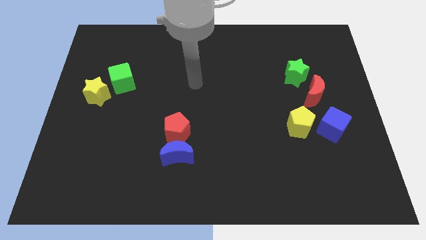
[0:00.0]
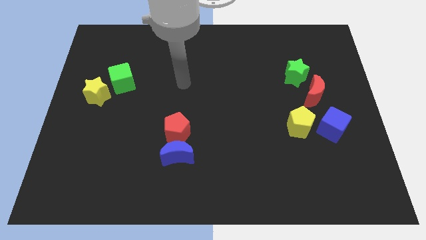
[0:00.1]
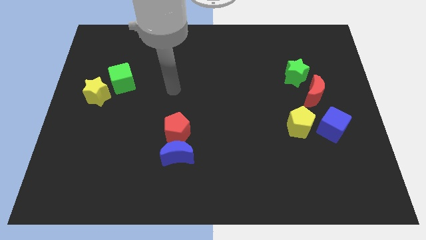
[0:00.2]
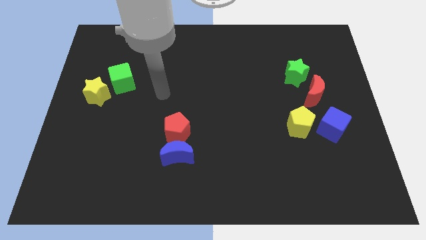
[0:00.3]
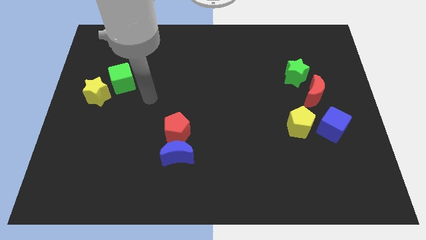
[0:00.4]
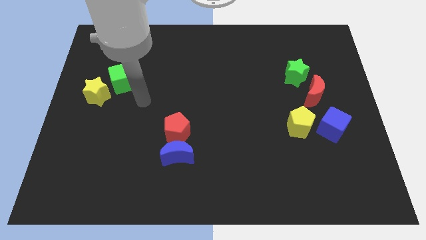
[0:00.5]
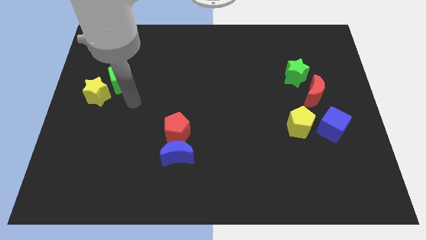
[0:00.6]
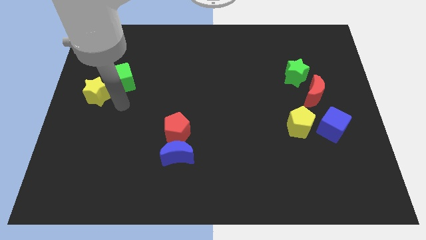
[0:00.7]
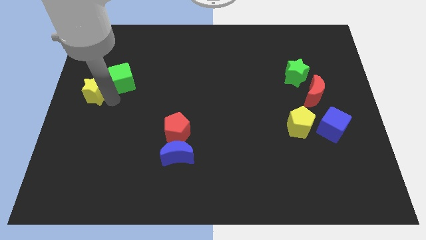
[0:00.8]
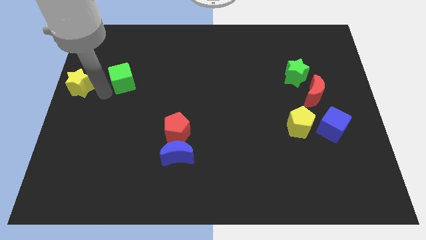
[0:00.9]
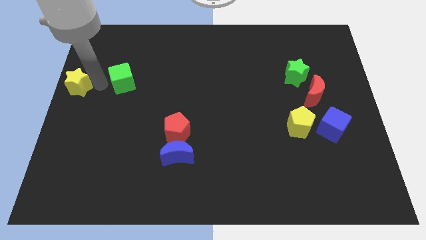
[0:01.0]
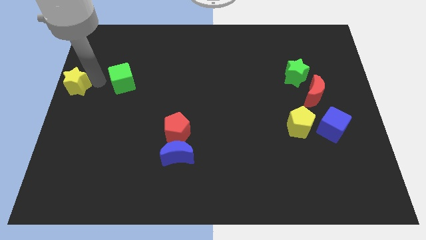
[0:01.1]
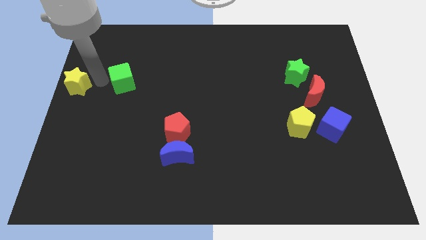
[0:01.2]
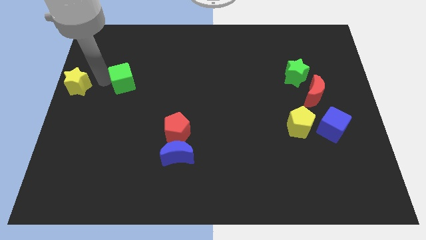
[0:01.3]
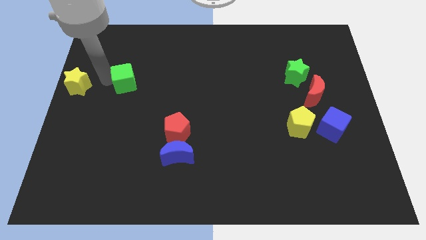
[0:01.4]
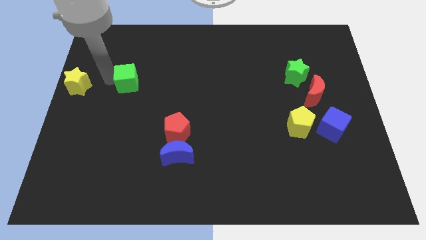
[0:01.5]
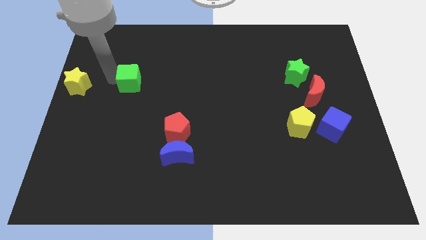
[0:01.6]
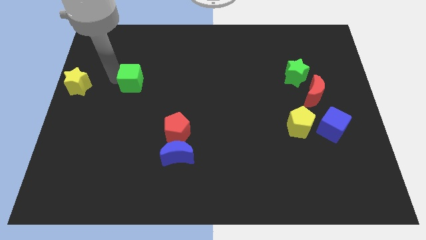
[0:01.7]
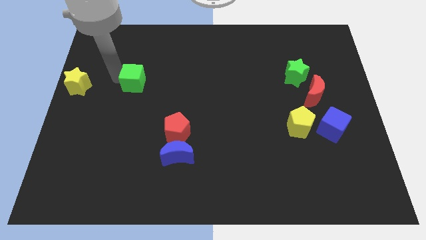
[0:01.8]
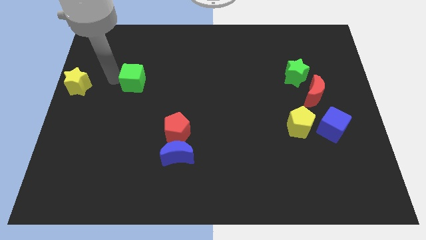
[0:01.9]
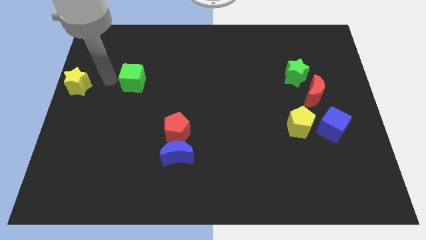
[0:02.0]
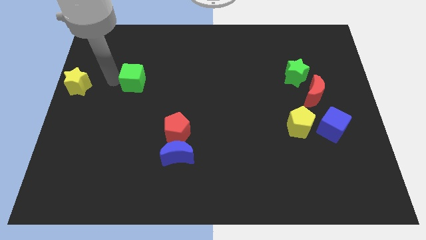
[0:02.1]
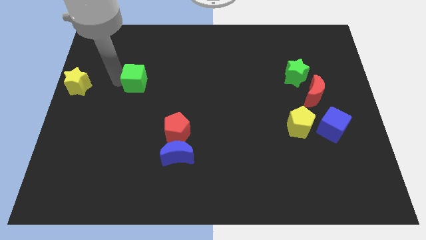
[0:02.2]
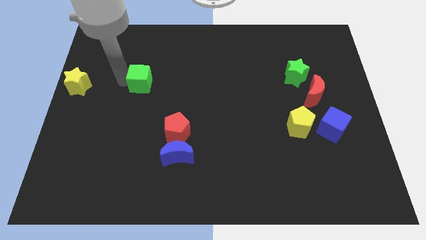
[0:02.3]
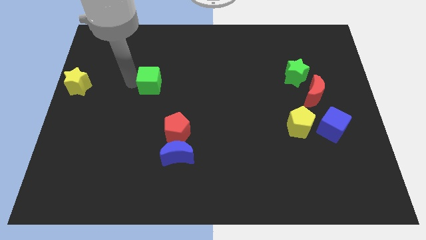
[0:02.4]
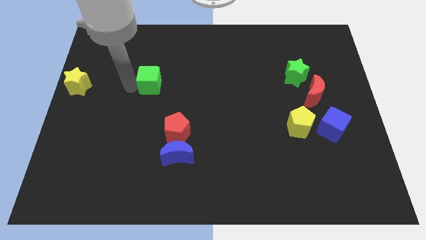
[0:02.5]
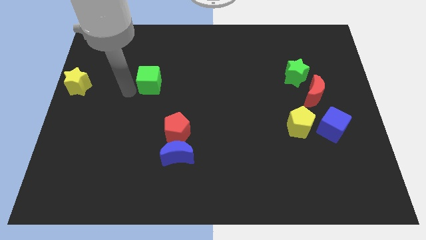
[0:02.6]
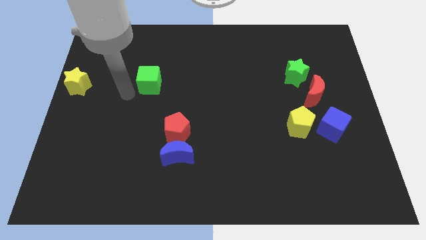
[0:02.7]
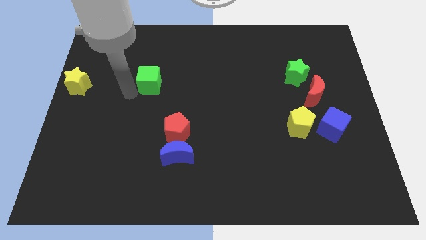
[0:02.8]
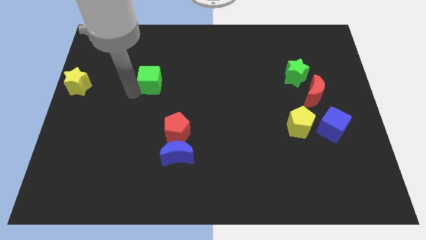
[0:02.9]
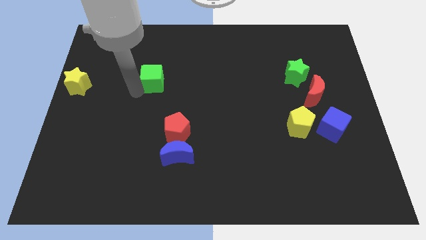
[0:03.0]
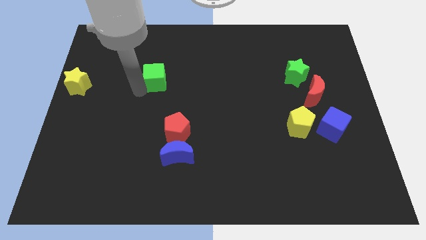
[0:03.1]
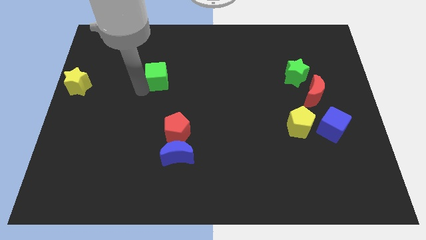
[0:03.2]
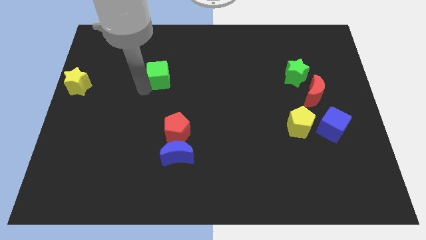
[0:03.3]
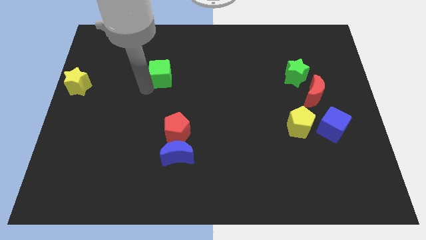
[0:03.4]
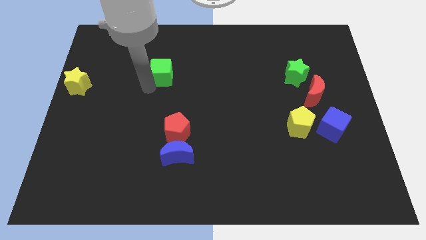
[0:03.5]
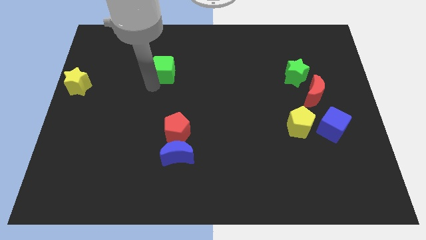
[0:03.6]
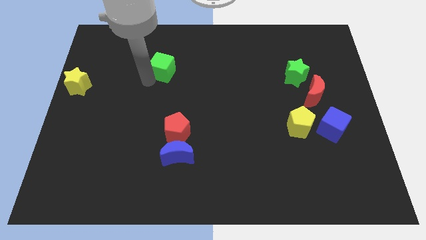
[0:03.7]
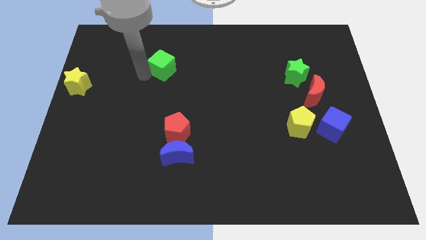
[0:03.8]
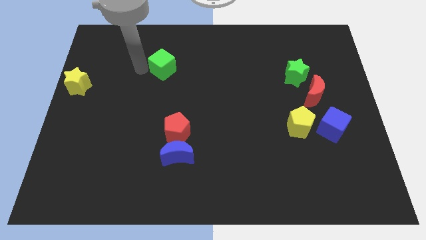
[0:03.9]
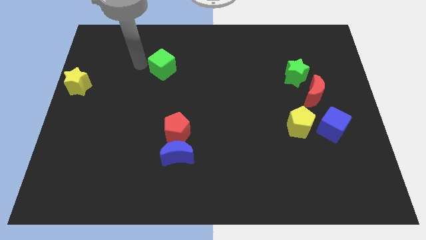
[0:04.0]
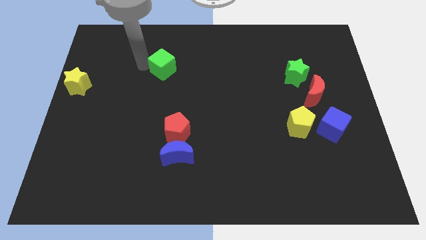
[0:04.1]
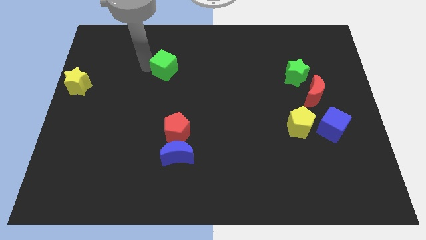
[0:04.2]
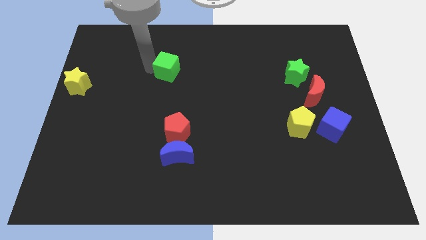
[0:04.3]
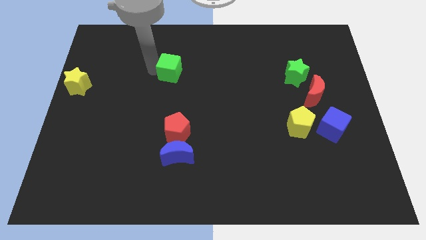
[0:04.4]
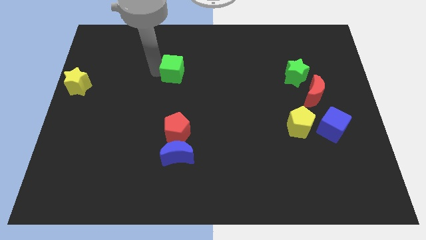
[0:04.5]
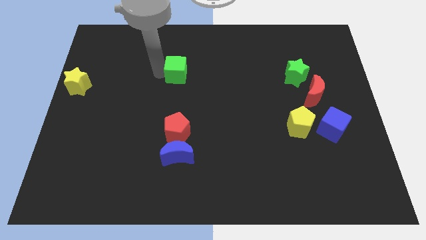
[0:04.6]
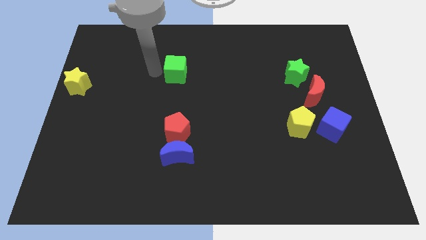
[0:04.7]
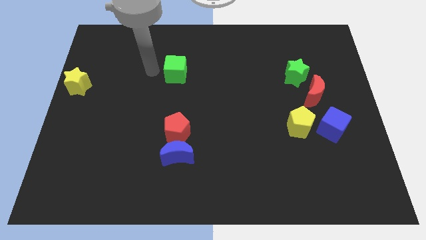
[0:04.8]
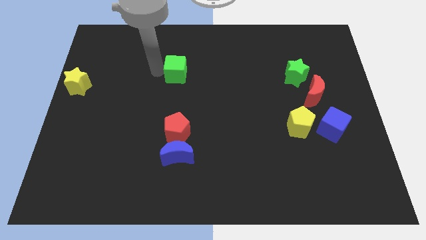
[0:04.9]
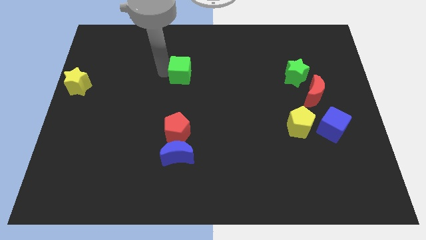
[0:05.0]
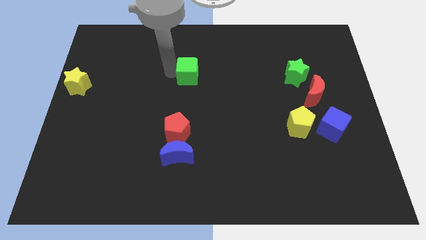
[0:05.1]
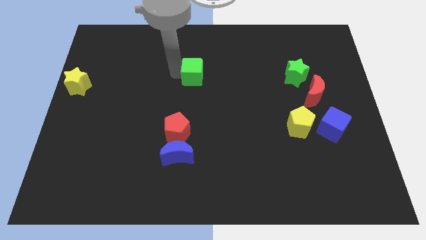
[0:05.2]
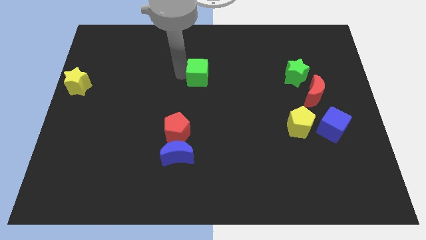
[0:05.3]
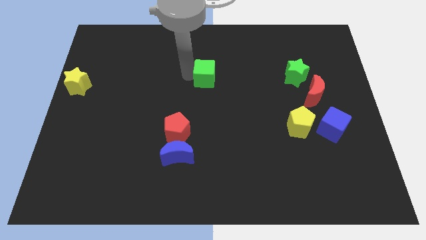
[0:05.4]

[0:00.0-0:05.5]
move the green cube to the right

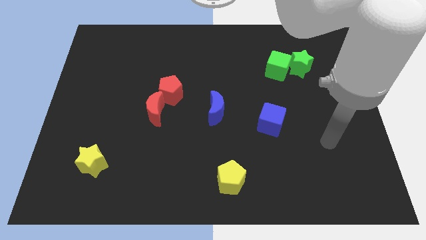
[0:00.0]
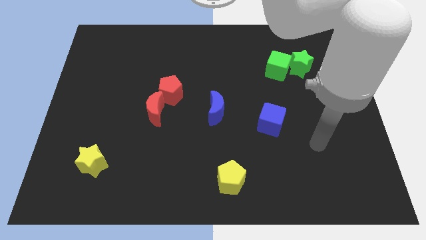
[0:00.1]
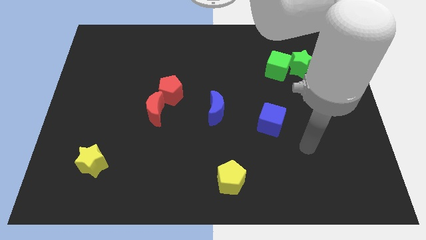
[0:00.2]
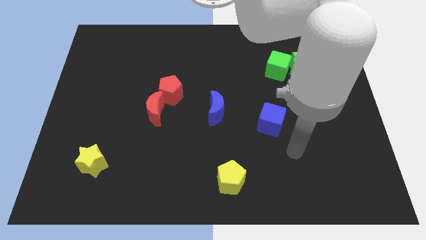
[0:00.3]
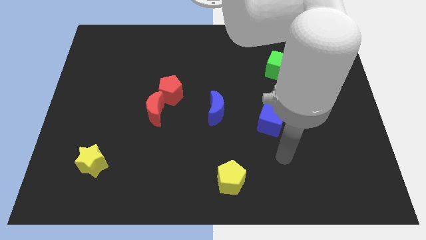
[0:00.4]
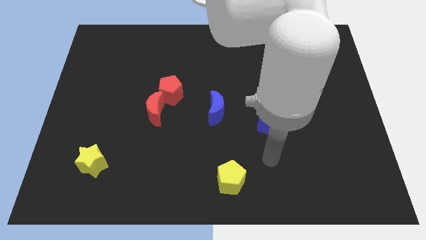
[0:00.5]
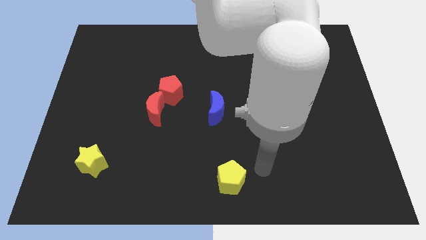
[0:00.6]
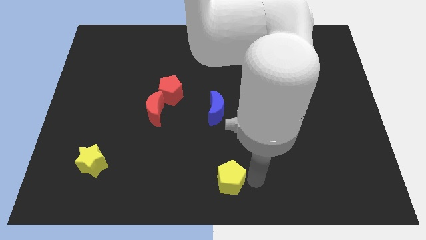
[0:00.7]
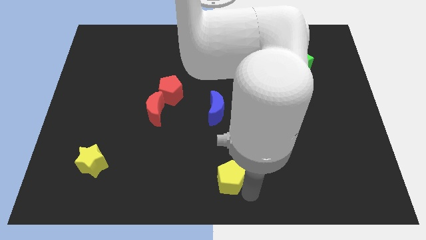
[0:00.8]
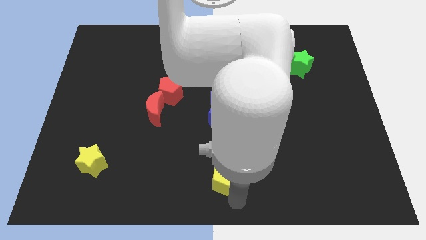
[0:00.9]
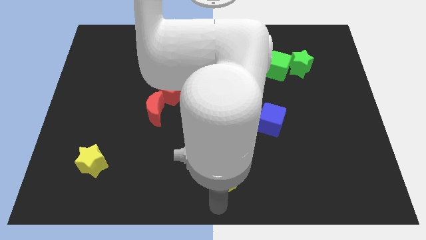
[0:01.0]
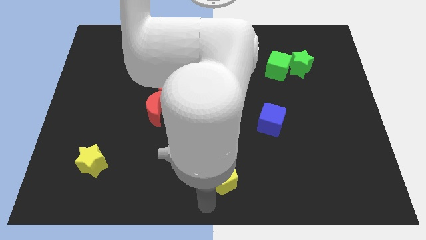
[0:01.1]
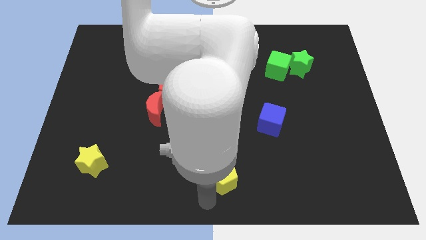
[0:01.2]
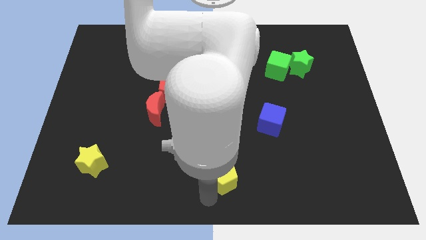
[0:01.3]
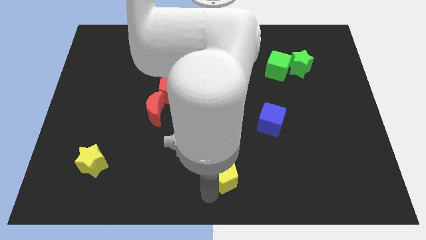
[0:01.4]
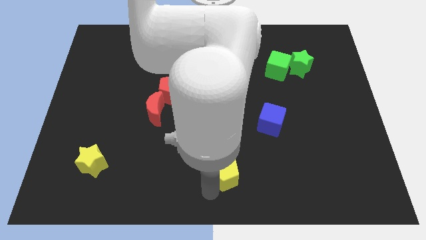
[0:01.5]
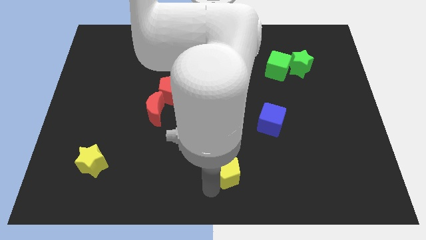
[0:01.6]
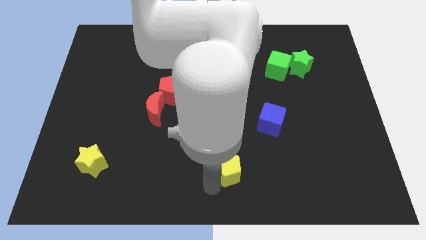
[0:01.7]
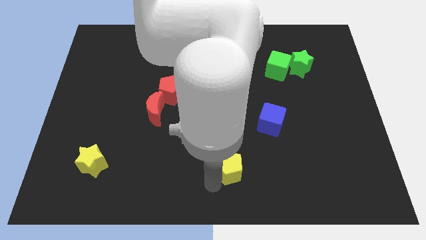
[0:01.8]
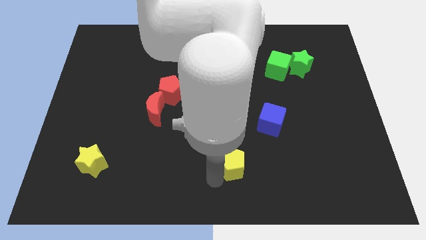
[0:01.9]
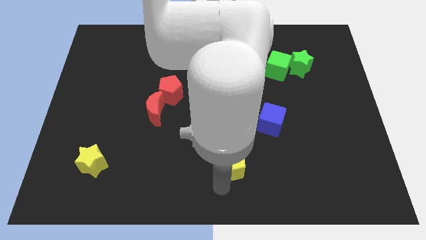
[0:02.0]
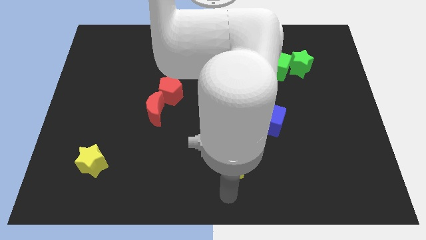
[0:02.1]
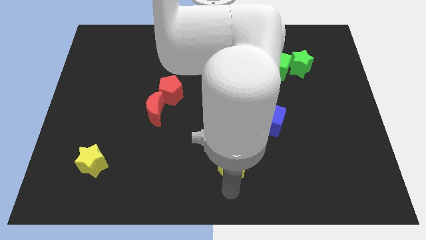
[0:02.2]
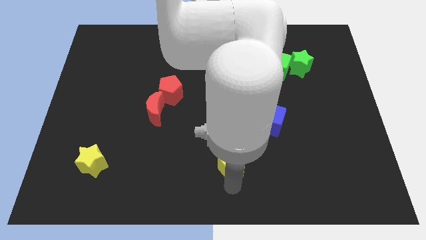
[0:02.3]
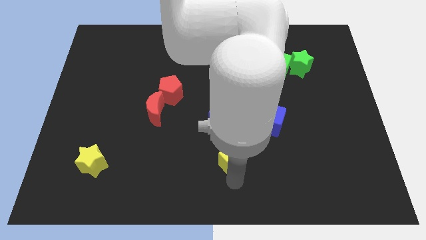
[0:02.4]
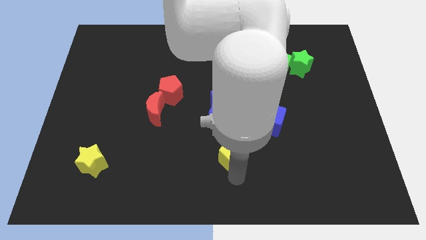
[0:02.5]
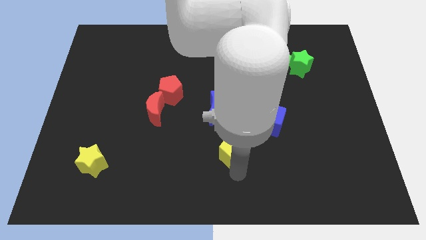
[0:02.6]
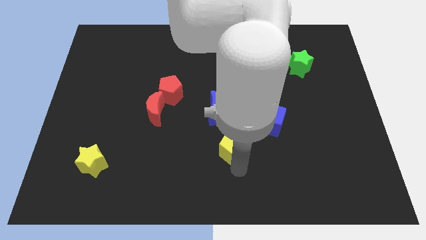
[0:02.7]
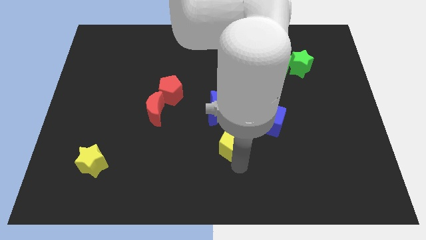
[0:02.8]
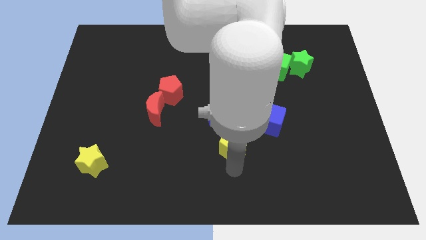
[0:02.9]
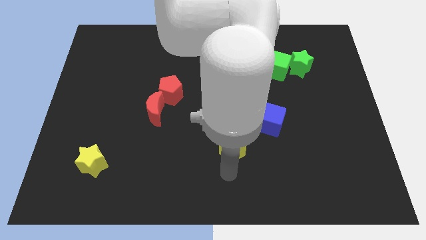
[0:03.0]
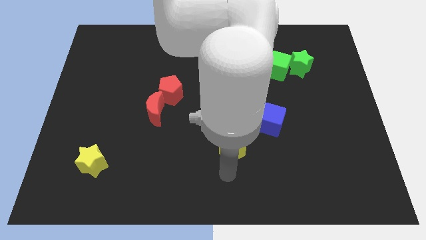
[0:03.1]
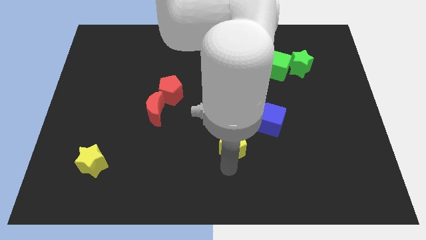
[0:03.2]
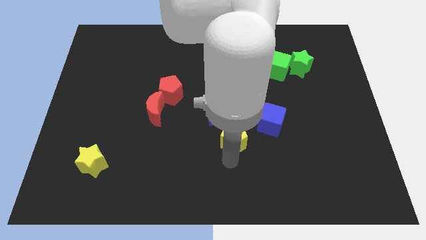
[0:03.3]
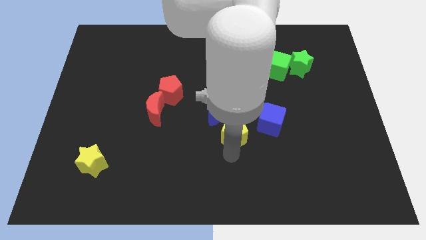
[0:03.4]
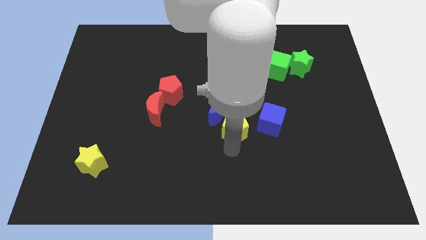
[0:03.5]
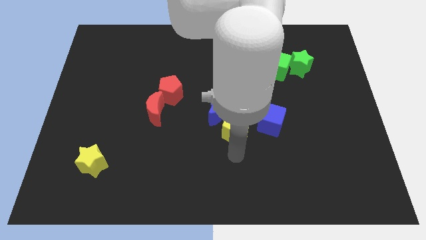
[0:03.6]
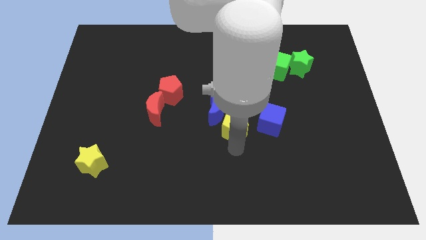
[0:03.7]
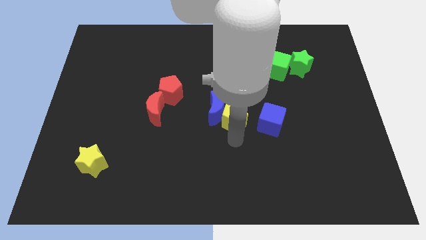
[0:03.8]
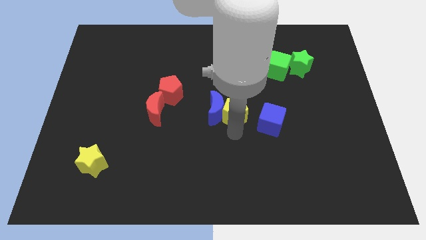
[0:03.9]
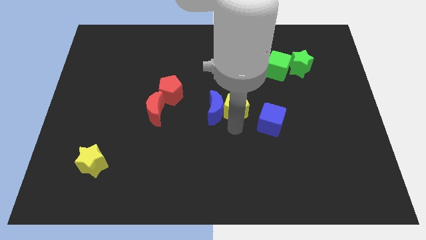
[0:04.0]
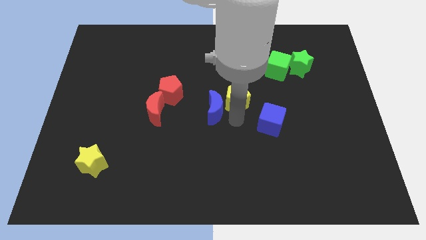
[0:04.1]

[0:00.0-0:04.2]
move the yellow pentagon up
